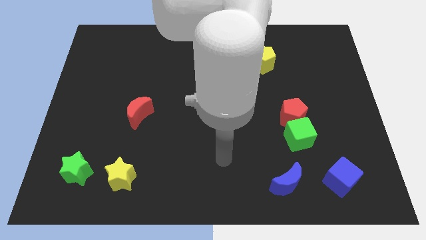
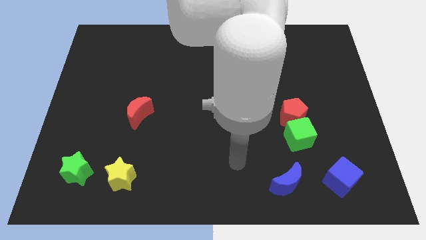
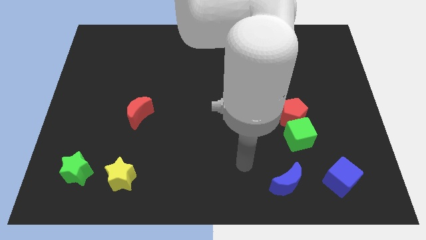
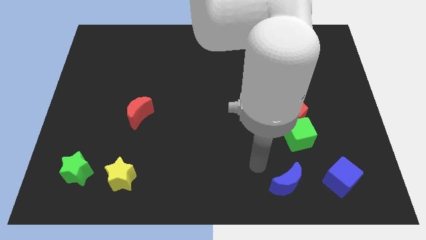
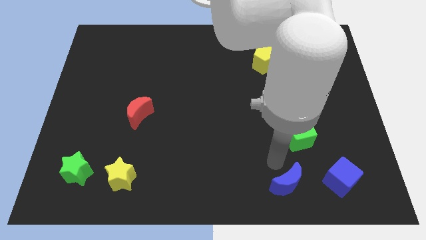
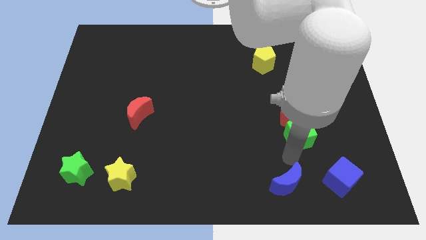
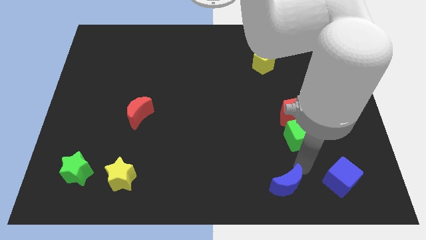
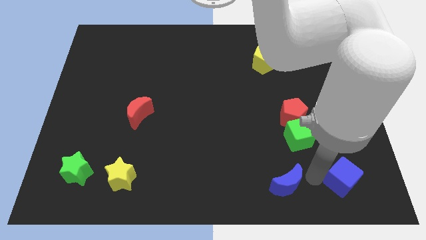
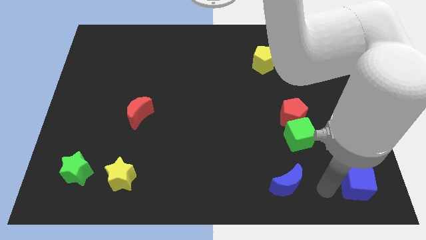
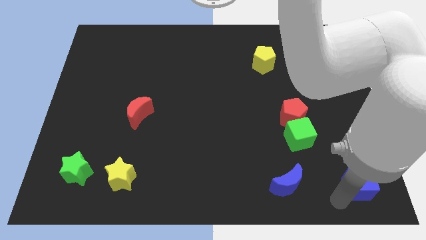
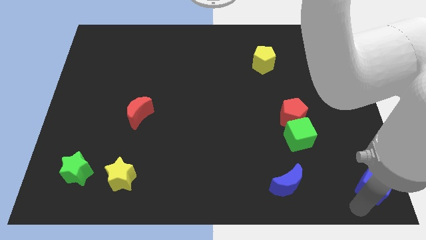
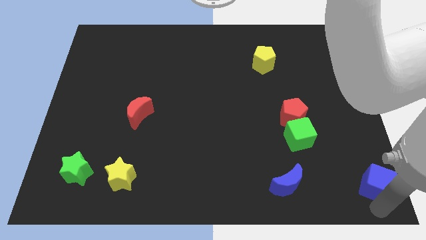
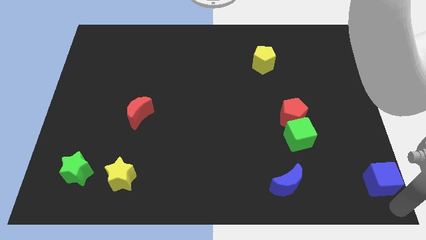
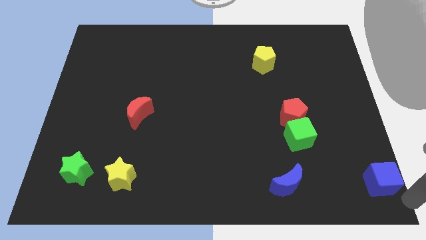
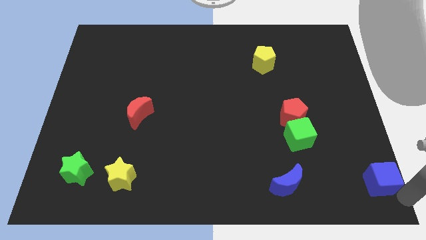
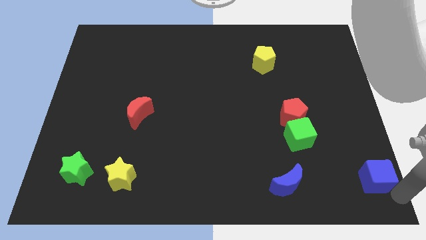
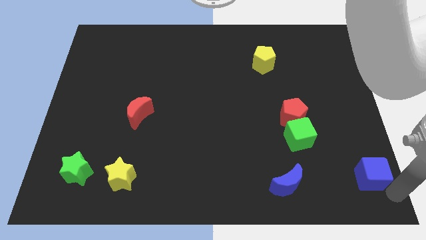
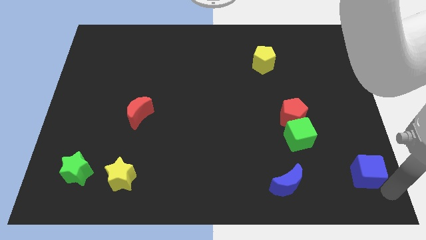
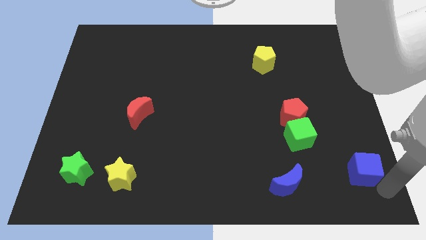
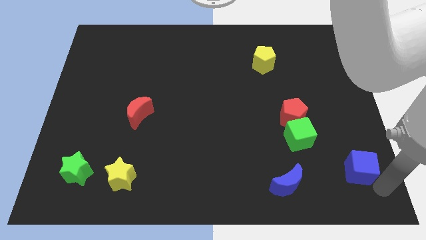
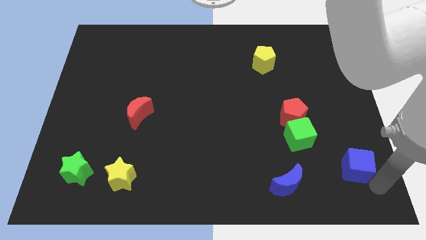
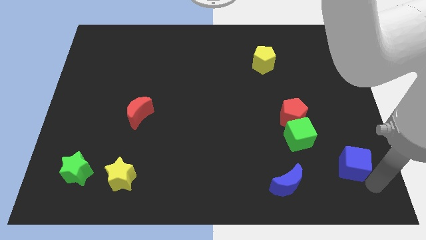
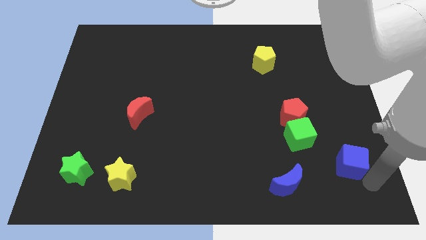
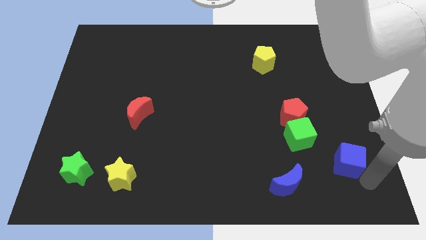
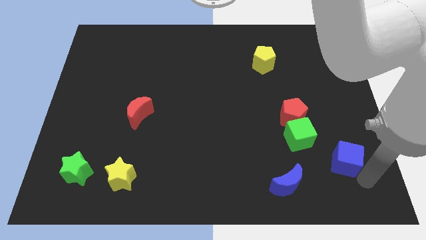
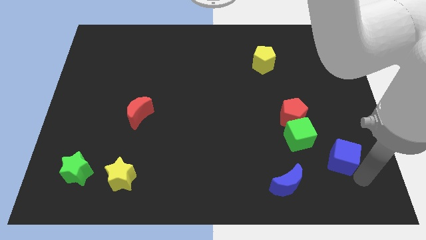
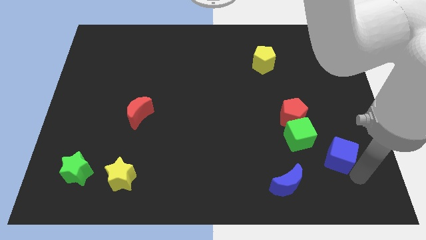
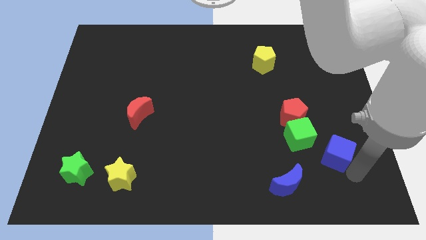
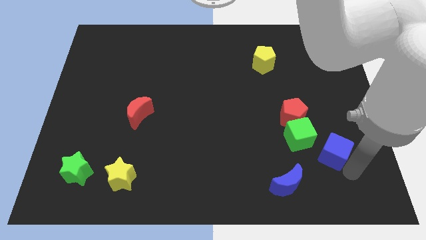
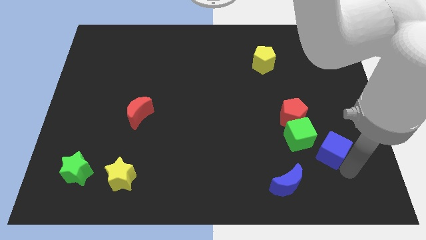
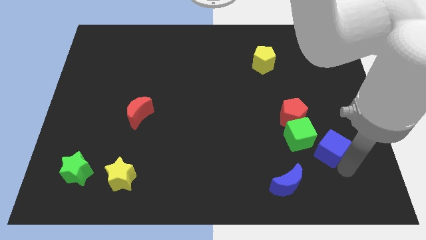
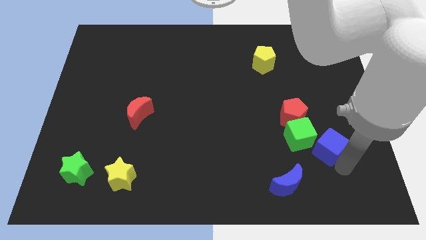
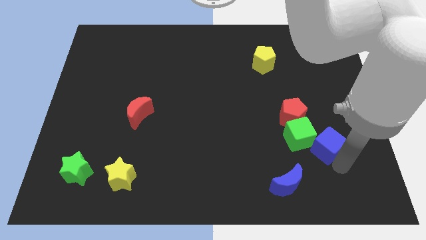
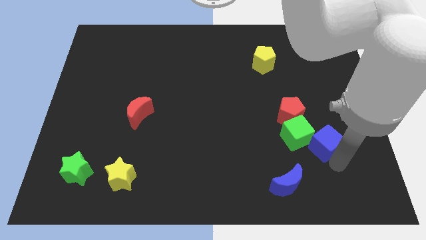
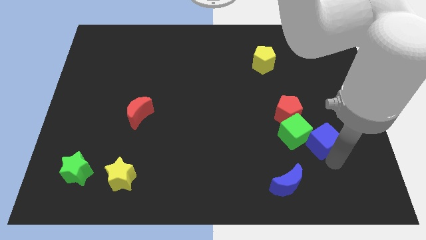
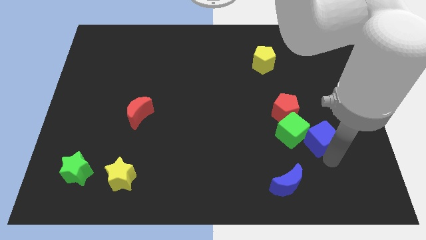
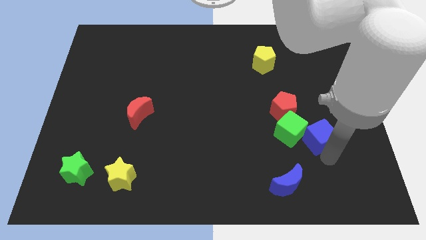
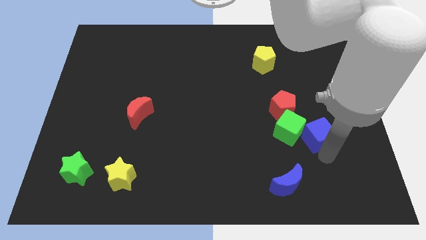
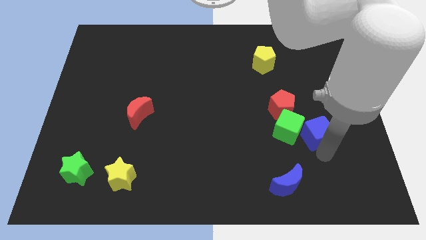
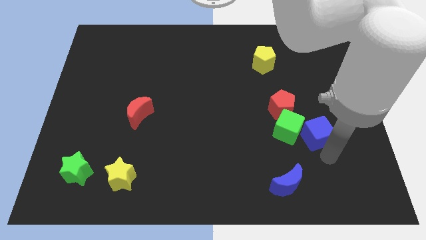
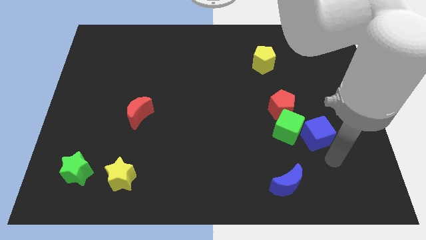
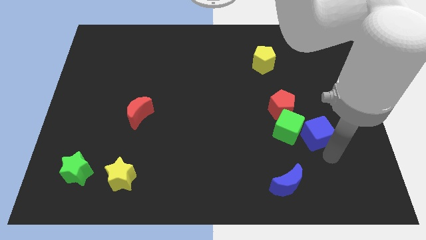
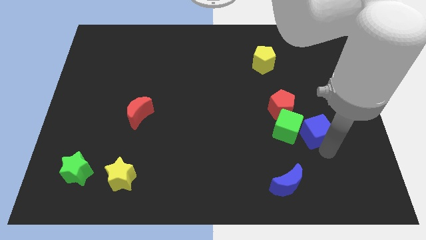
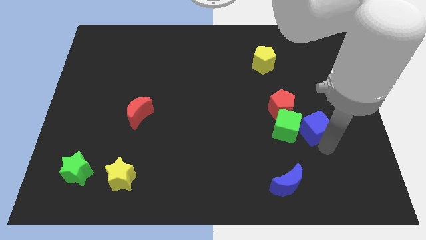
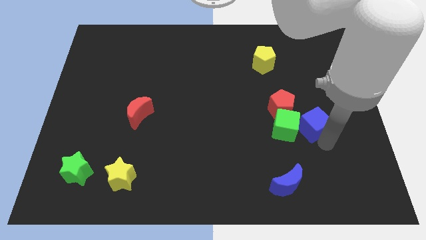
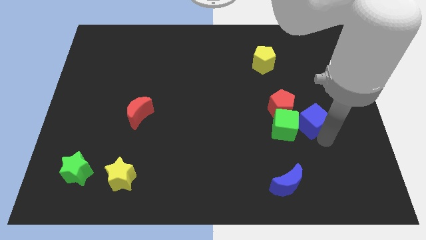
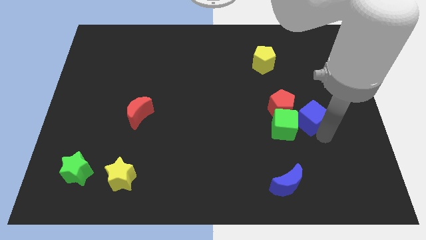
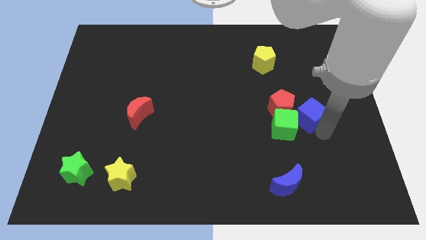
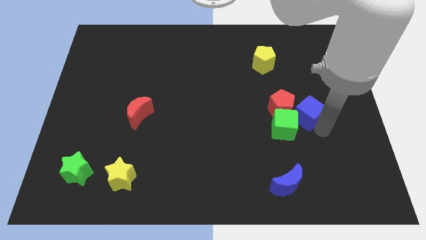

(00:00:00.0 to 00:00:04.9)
push the blue cube close to the red pentagon

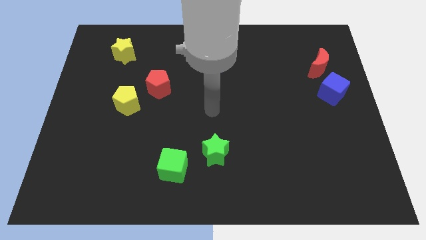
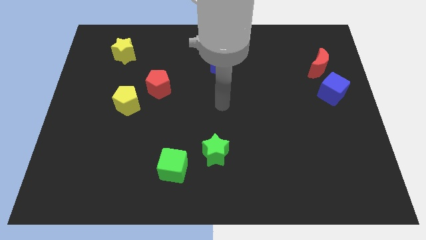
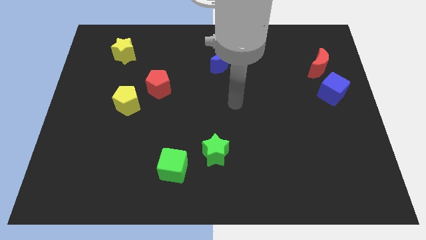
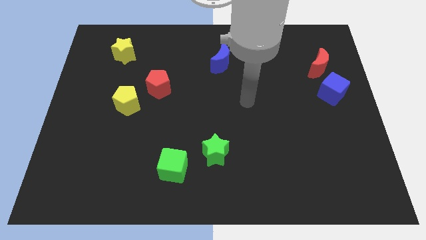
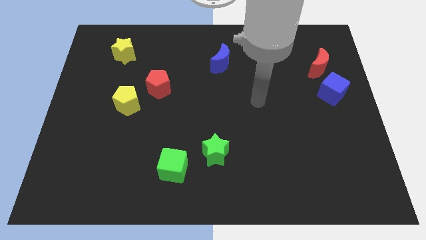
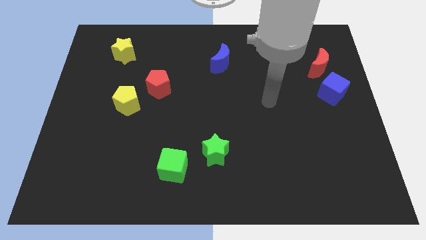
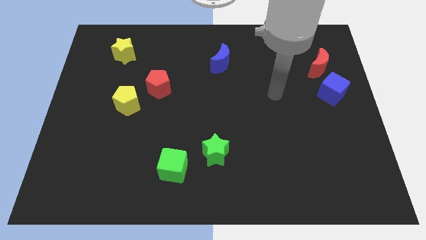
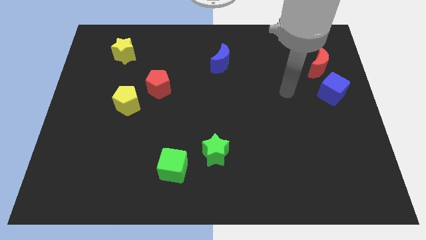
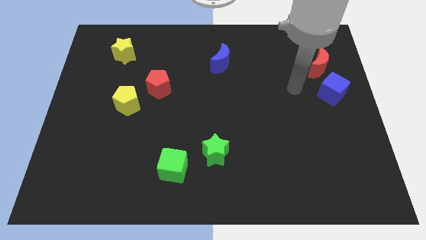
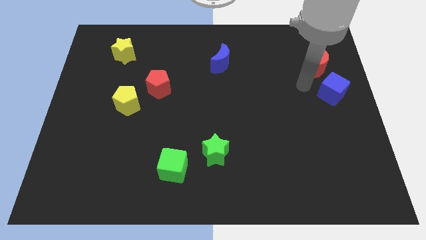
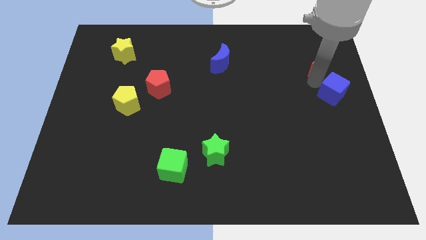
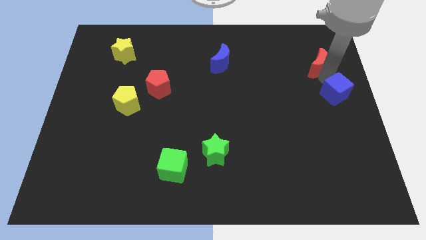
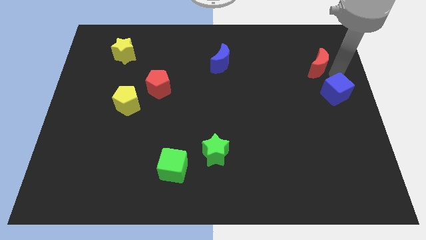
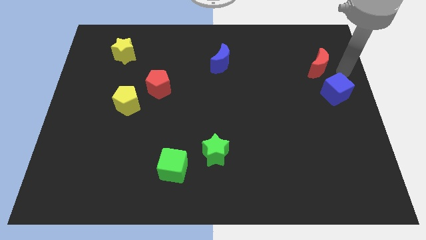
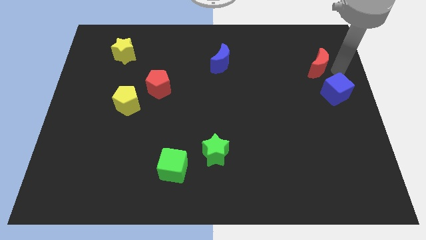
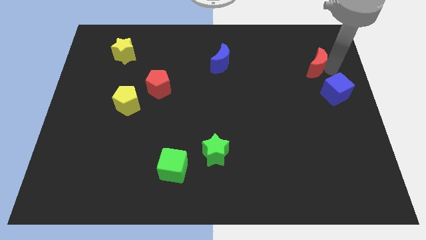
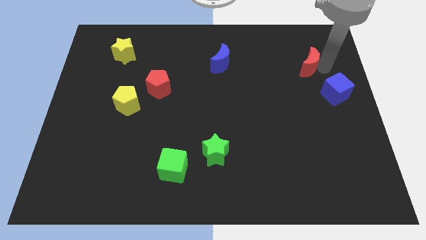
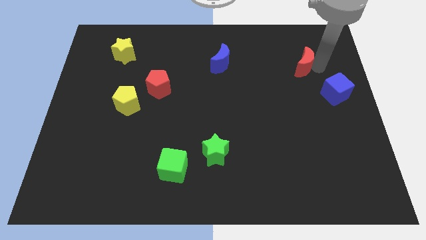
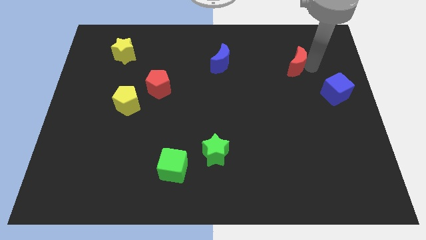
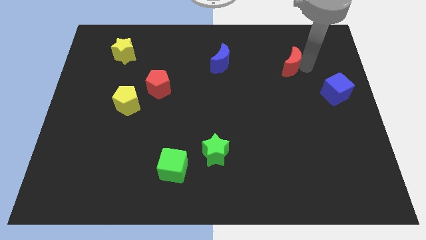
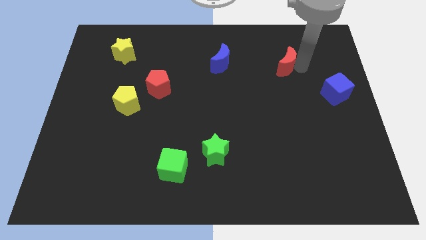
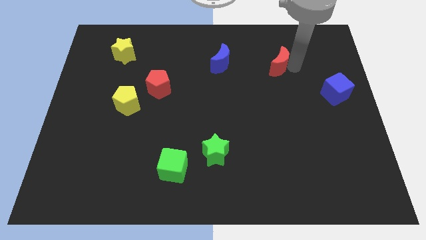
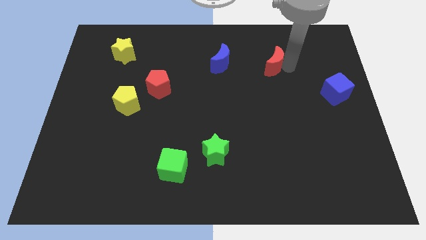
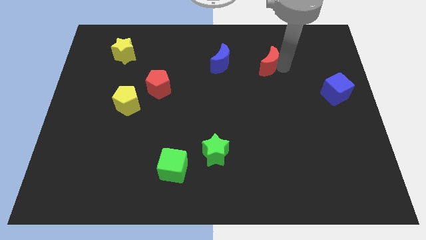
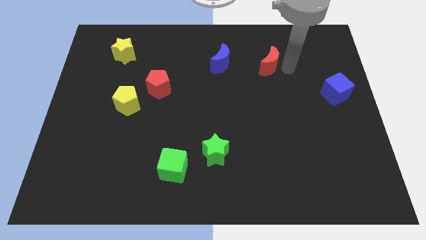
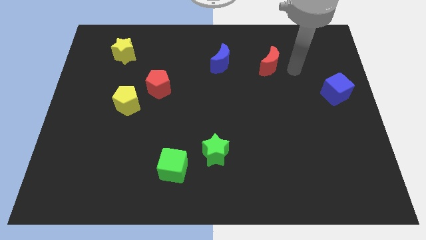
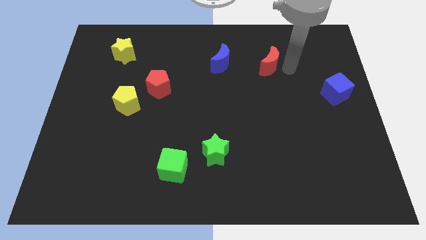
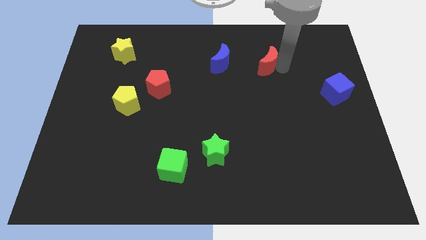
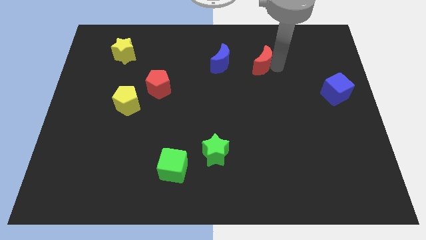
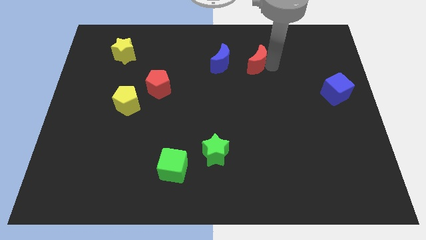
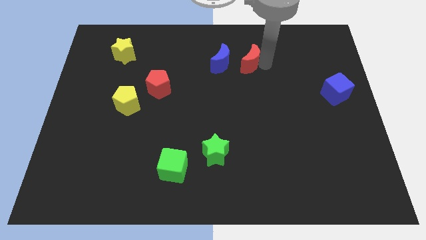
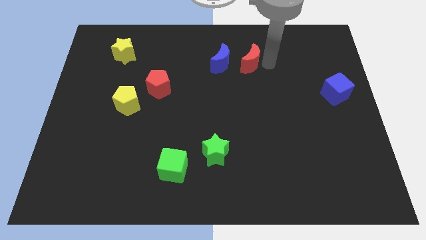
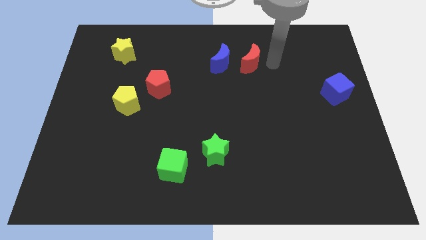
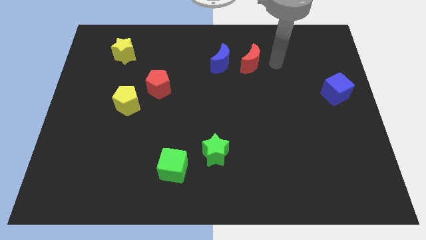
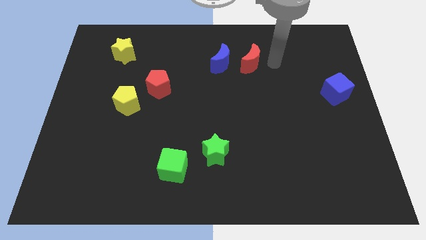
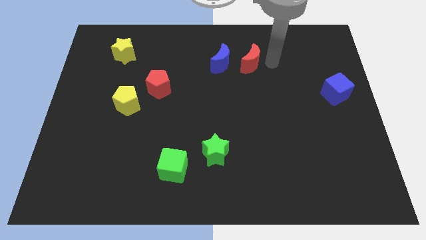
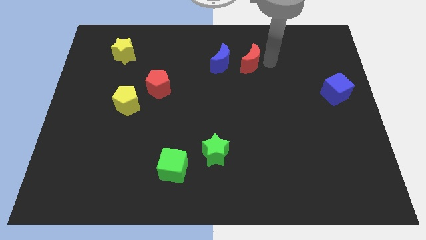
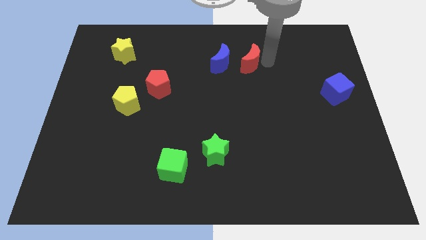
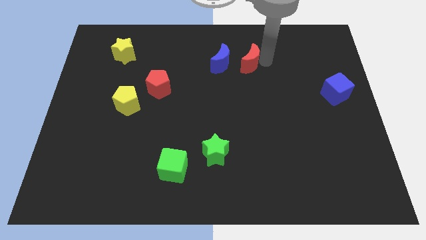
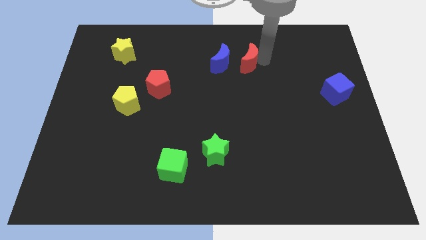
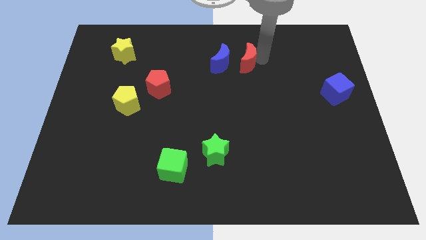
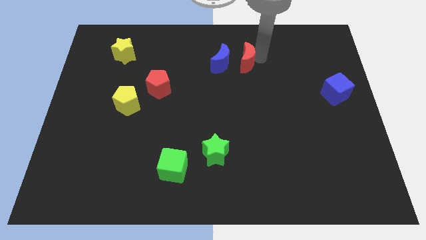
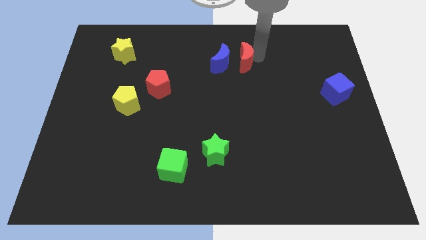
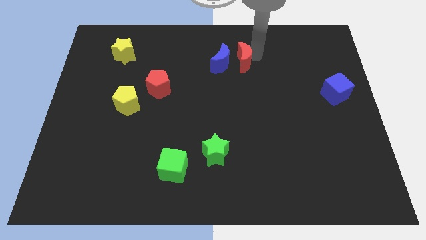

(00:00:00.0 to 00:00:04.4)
put the red moon towards the blue moon
